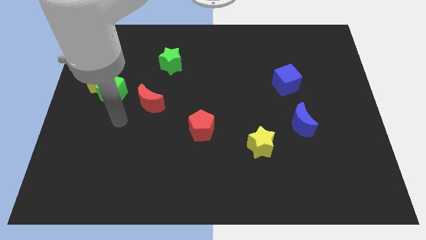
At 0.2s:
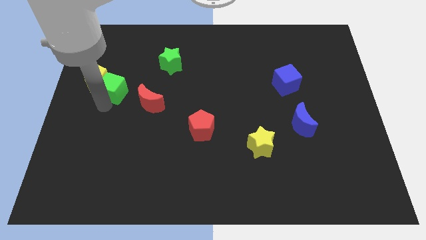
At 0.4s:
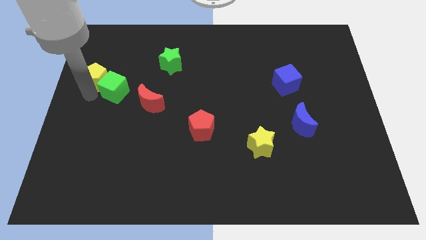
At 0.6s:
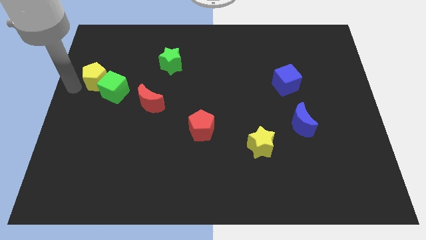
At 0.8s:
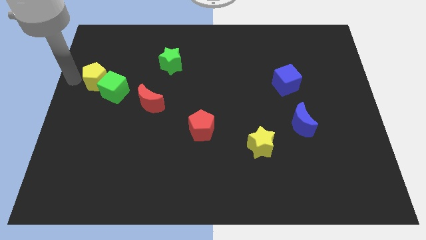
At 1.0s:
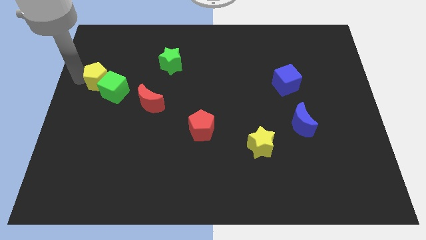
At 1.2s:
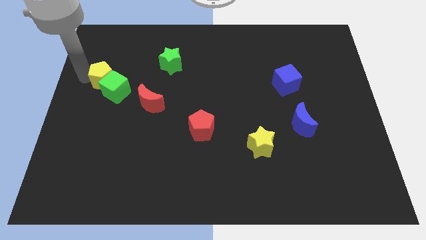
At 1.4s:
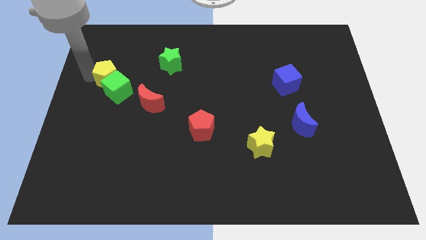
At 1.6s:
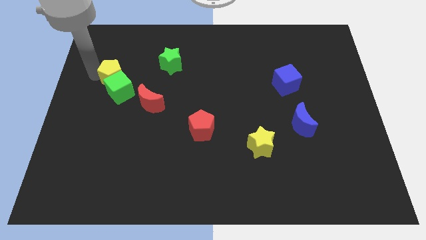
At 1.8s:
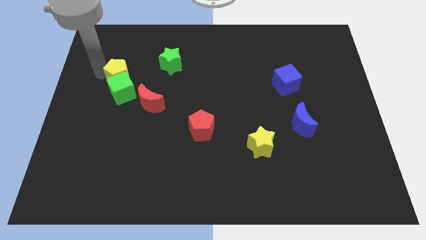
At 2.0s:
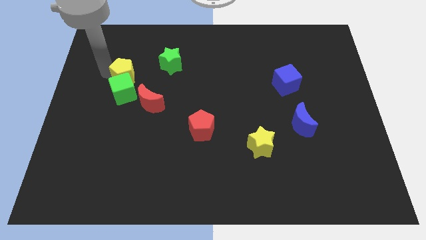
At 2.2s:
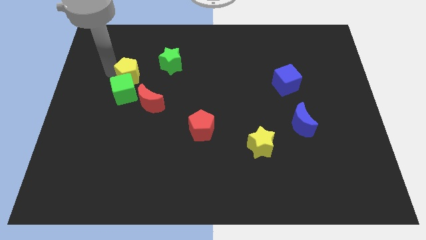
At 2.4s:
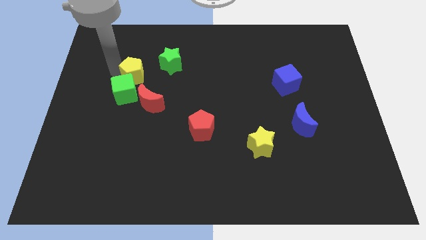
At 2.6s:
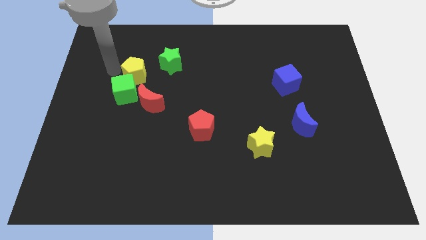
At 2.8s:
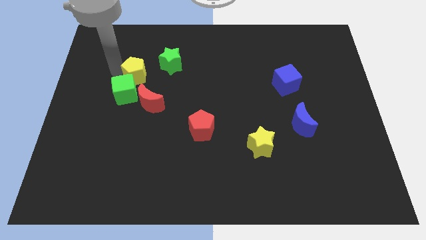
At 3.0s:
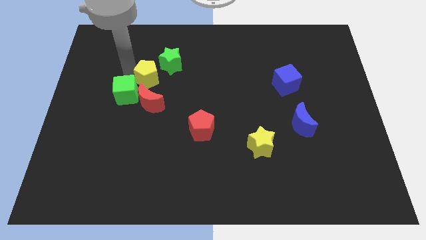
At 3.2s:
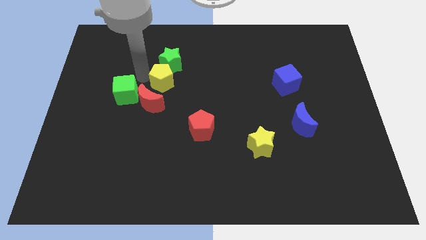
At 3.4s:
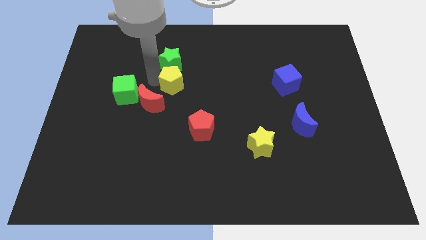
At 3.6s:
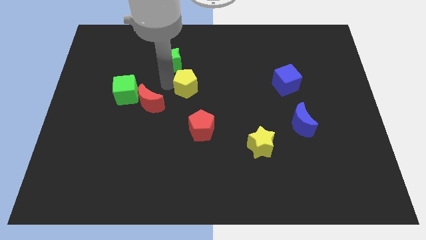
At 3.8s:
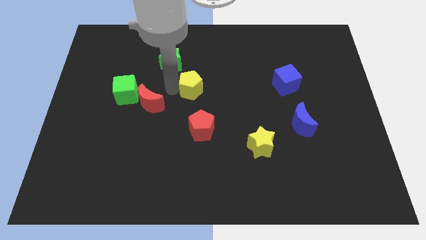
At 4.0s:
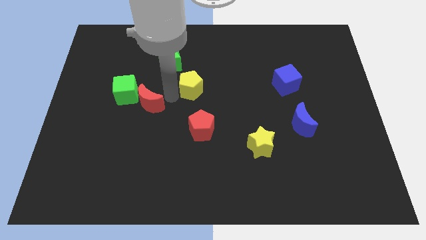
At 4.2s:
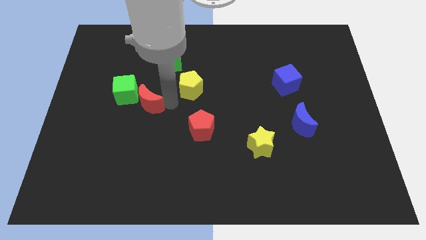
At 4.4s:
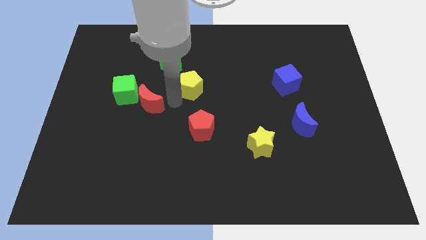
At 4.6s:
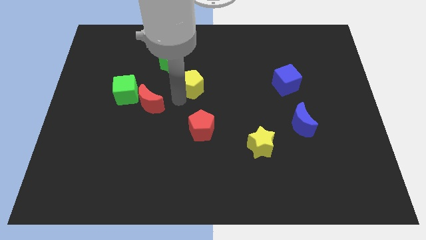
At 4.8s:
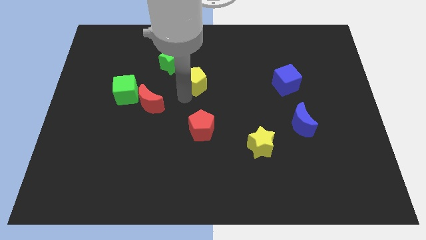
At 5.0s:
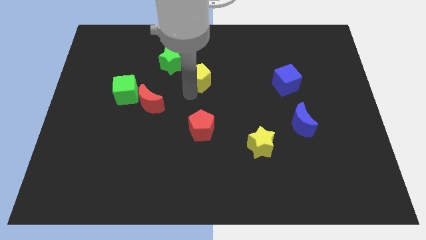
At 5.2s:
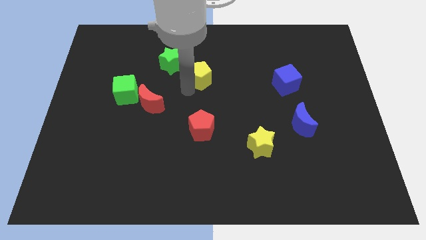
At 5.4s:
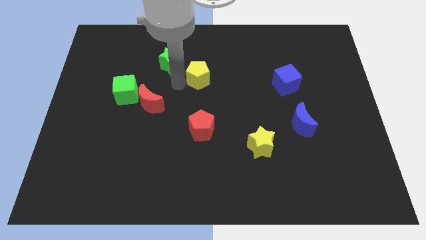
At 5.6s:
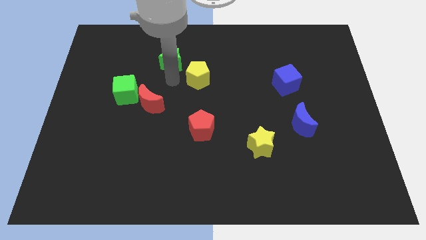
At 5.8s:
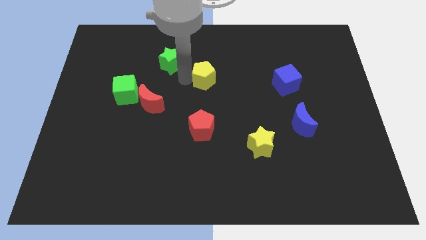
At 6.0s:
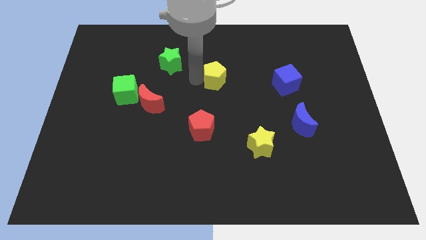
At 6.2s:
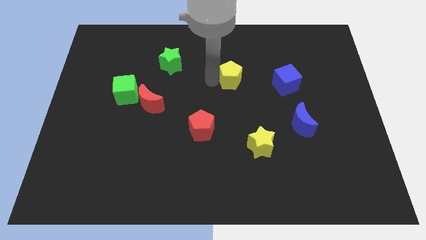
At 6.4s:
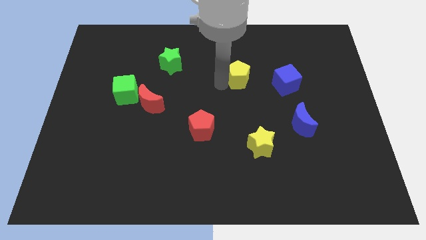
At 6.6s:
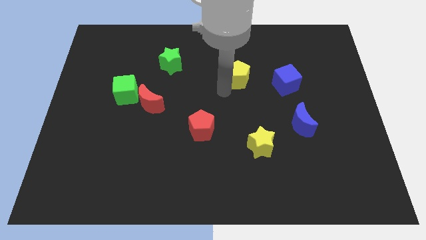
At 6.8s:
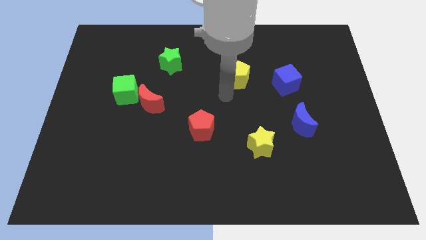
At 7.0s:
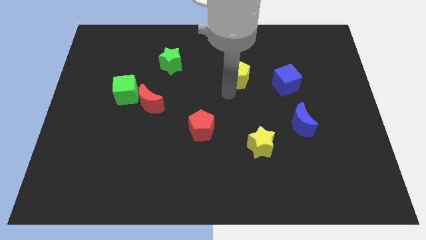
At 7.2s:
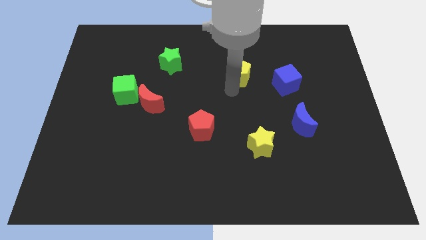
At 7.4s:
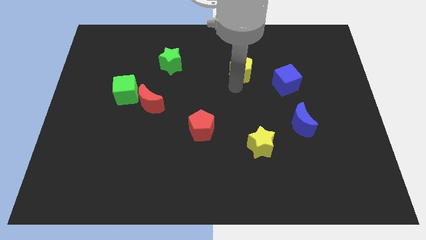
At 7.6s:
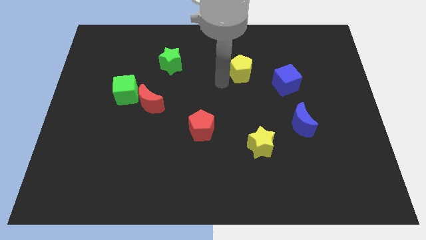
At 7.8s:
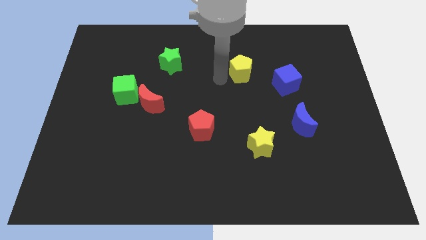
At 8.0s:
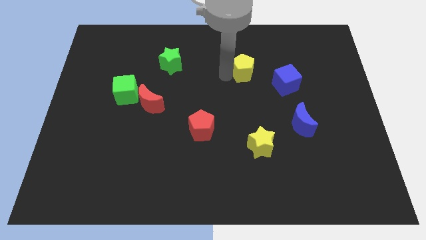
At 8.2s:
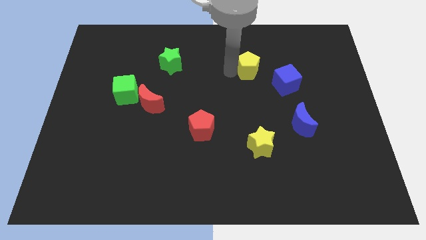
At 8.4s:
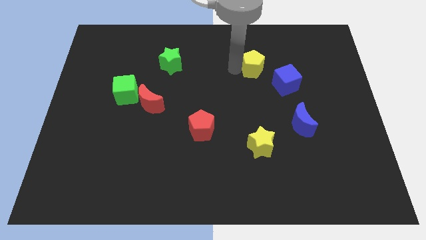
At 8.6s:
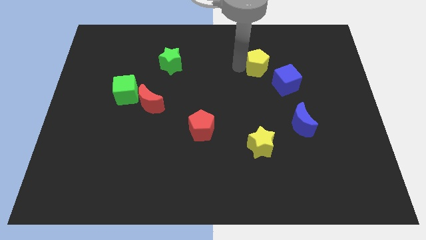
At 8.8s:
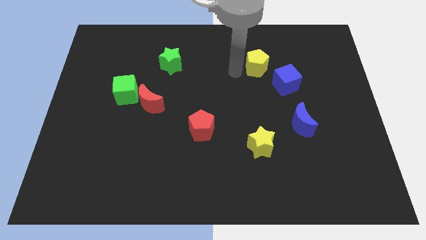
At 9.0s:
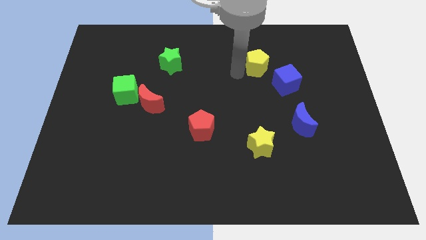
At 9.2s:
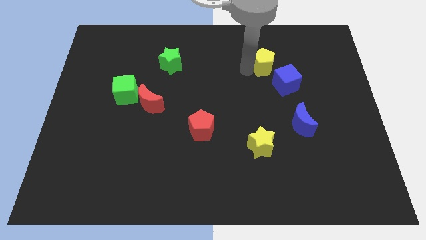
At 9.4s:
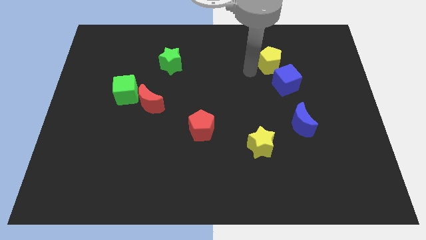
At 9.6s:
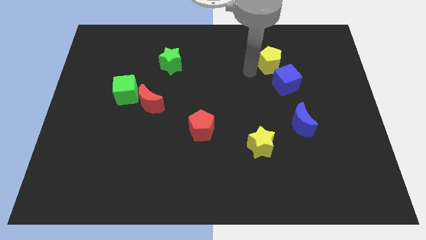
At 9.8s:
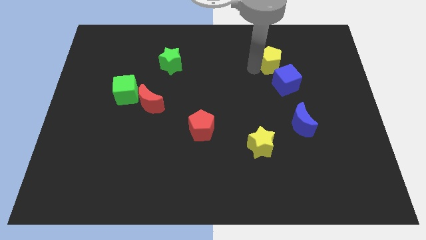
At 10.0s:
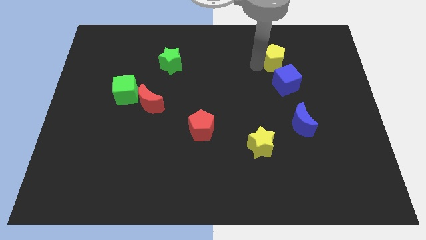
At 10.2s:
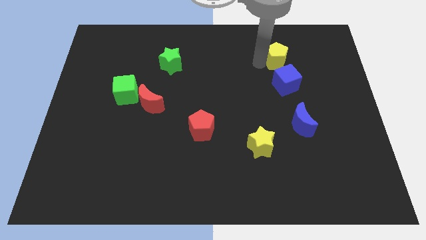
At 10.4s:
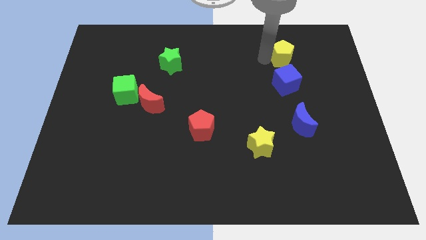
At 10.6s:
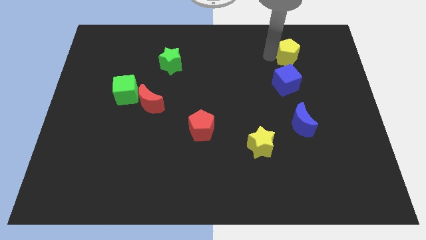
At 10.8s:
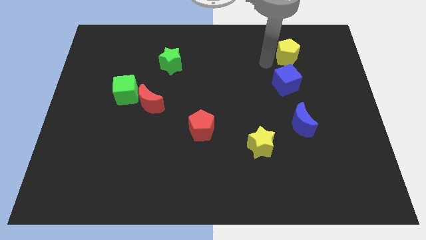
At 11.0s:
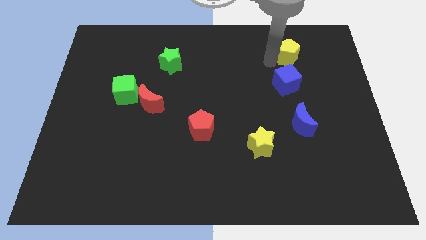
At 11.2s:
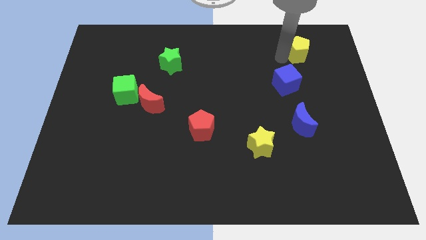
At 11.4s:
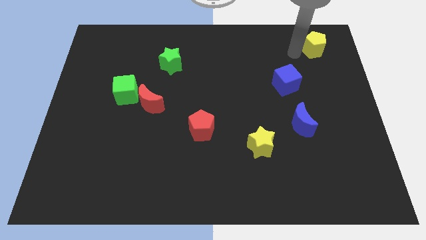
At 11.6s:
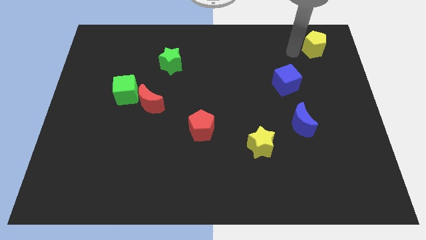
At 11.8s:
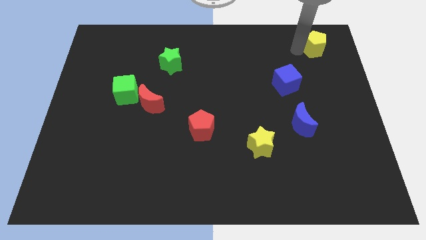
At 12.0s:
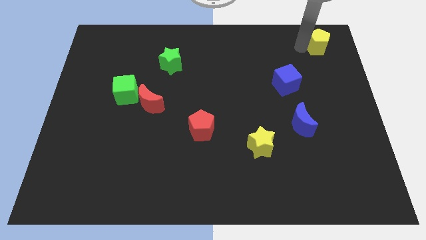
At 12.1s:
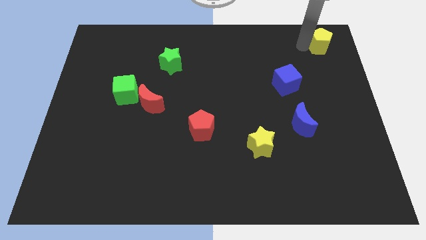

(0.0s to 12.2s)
push the yellow pentagon to the top right corner

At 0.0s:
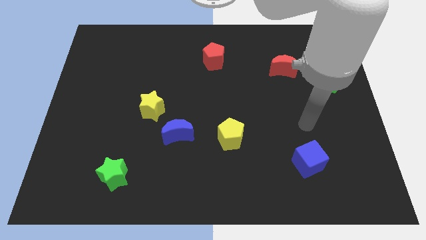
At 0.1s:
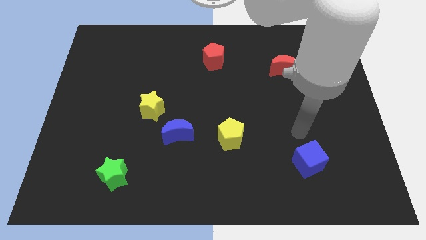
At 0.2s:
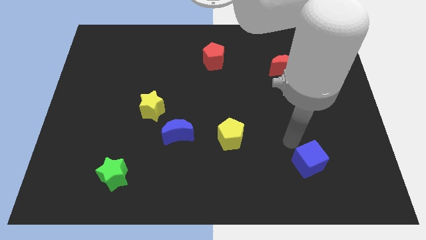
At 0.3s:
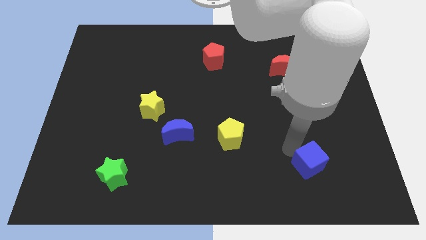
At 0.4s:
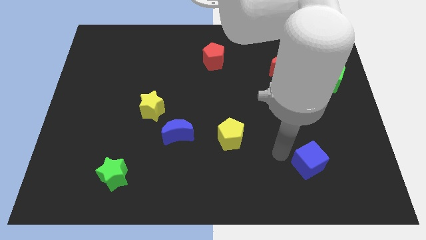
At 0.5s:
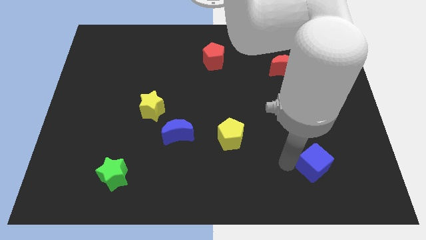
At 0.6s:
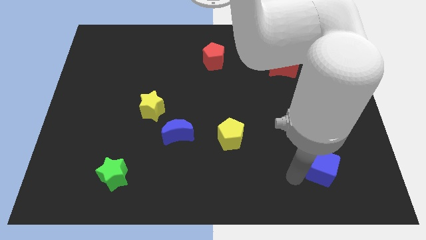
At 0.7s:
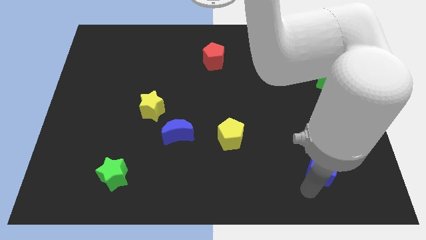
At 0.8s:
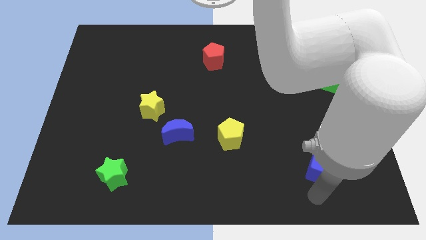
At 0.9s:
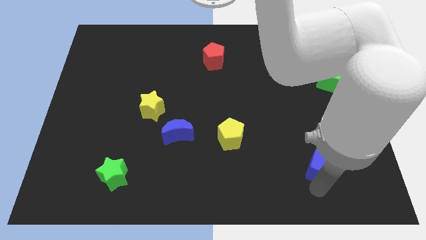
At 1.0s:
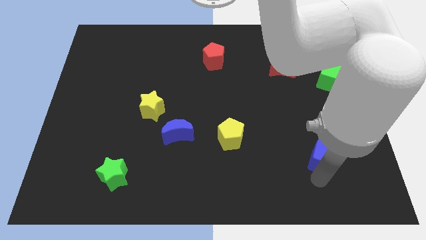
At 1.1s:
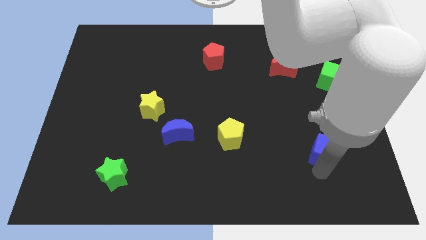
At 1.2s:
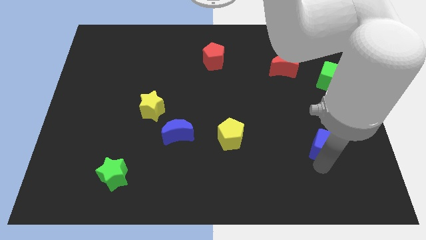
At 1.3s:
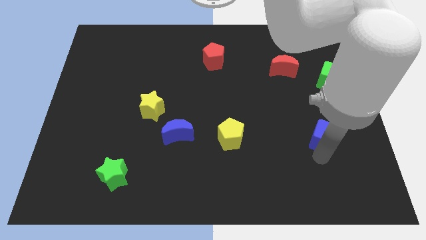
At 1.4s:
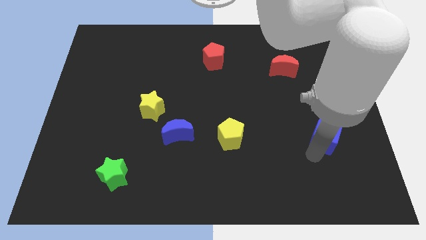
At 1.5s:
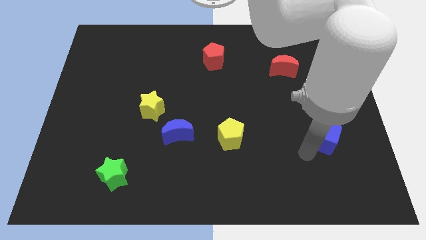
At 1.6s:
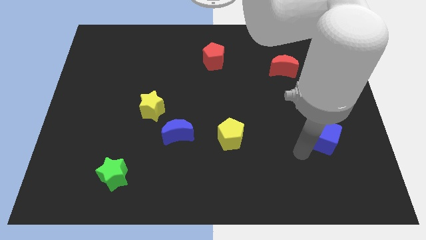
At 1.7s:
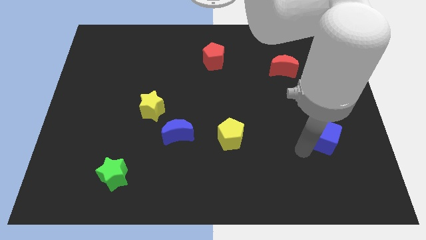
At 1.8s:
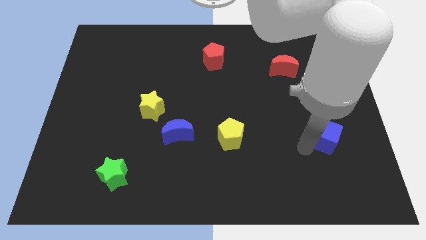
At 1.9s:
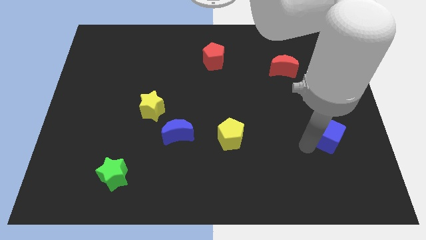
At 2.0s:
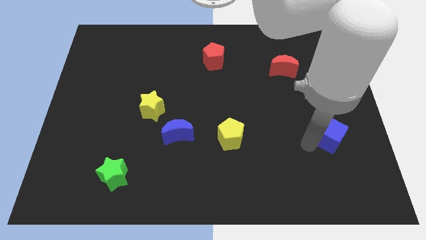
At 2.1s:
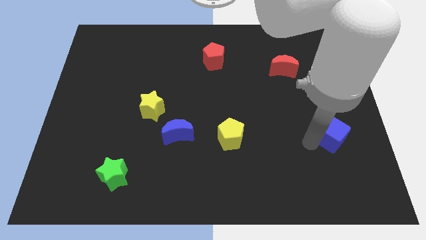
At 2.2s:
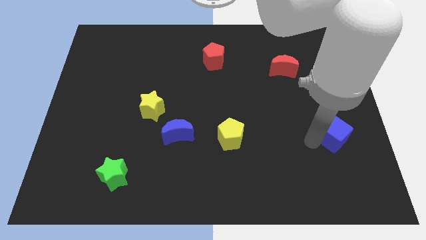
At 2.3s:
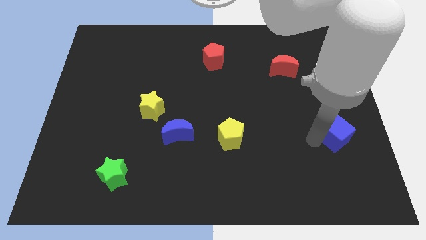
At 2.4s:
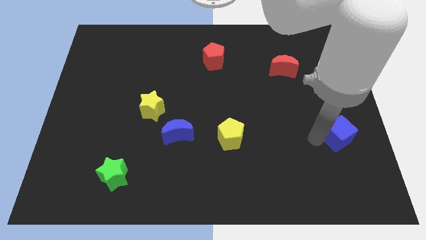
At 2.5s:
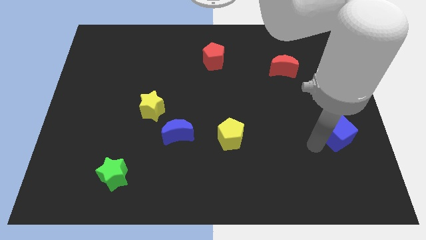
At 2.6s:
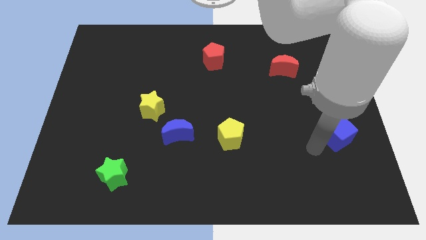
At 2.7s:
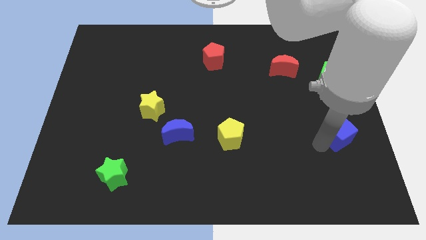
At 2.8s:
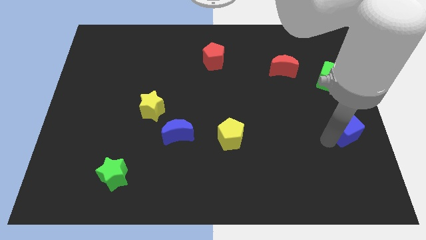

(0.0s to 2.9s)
push the blue cube to the right side
